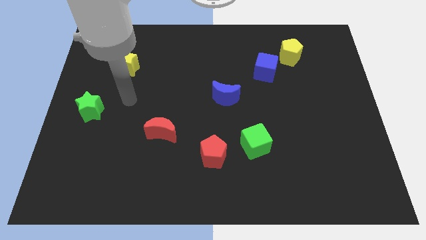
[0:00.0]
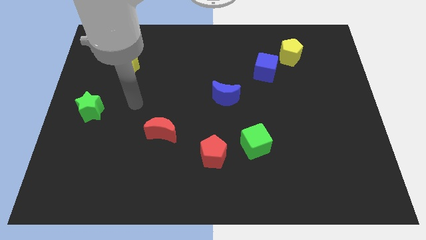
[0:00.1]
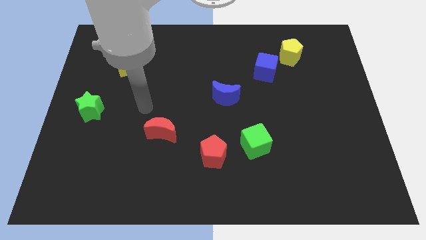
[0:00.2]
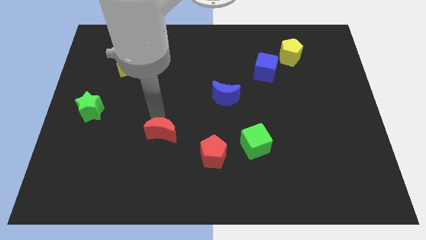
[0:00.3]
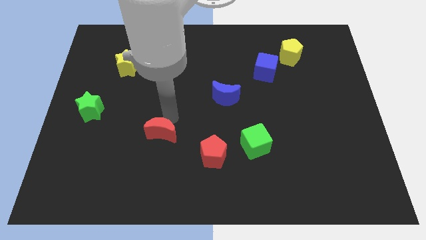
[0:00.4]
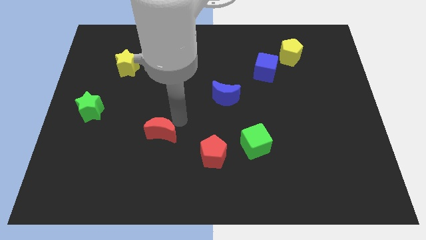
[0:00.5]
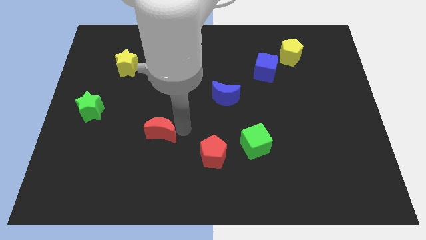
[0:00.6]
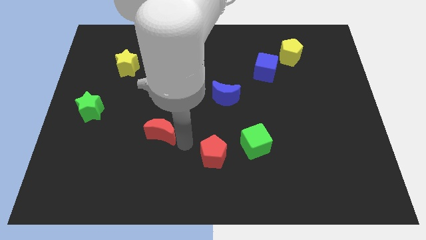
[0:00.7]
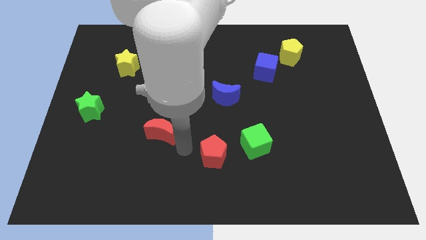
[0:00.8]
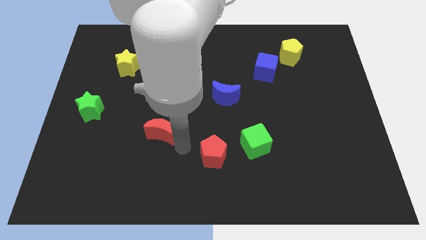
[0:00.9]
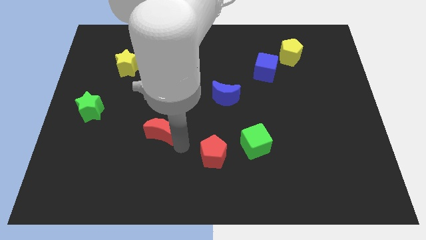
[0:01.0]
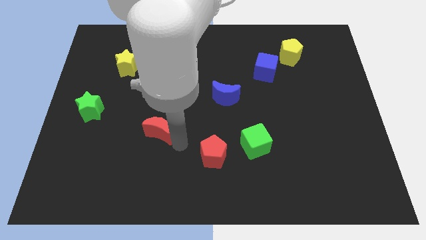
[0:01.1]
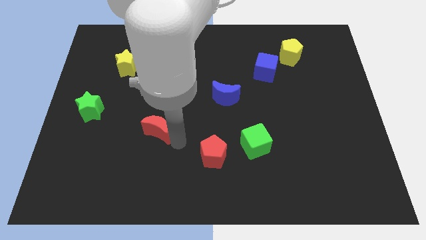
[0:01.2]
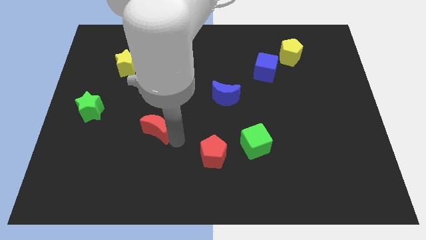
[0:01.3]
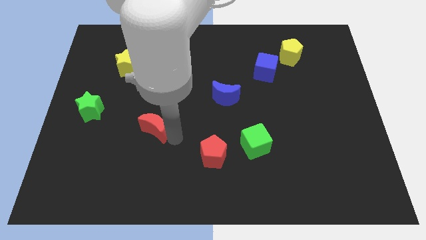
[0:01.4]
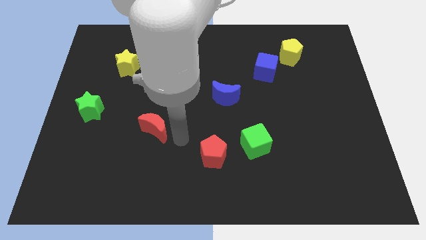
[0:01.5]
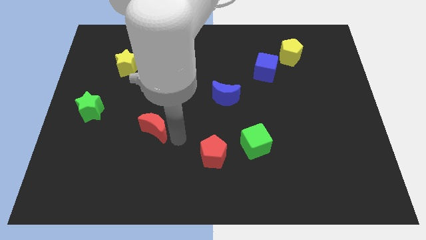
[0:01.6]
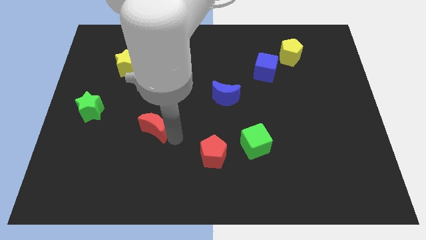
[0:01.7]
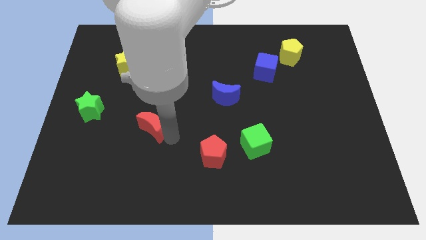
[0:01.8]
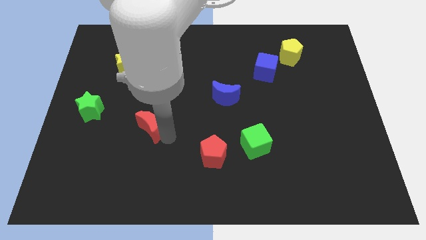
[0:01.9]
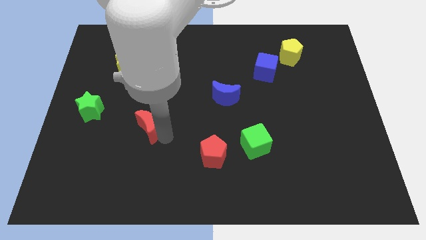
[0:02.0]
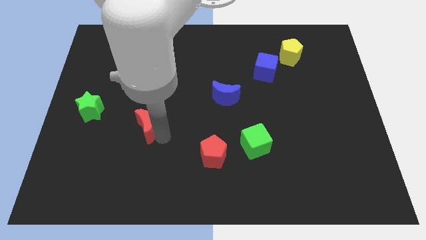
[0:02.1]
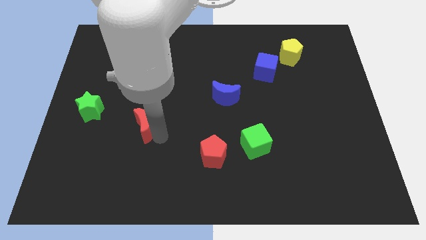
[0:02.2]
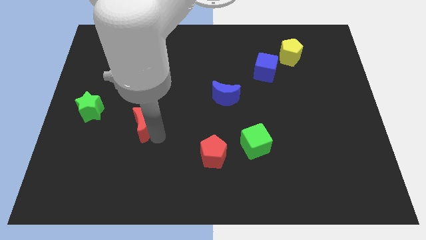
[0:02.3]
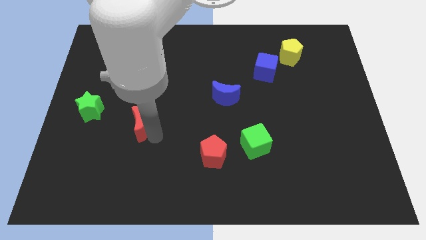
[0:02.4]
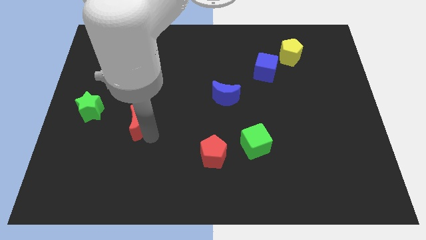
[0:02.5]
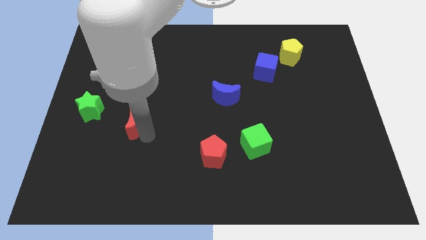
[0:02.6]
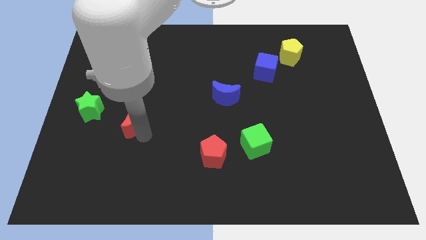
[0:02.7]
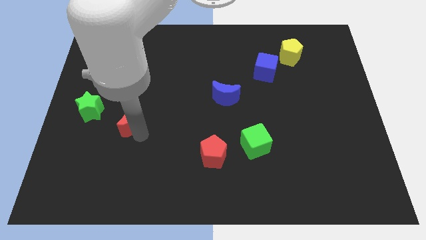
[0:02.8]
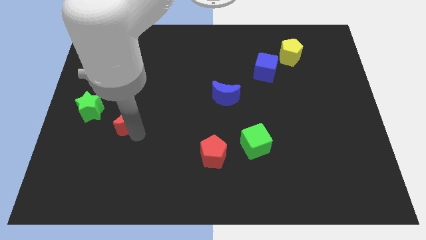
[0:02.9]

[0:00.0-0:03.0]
move the red moon upwards and left a little

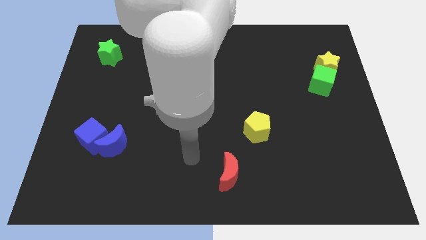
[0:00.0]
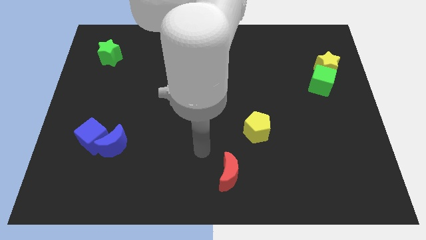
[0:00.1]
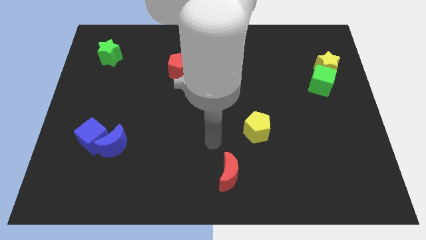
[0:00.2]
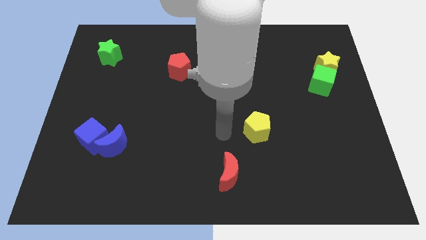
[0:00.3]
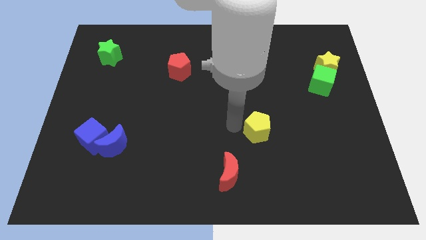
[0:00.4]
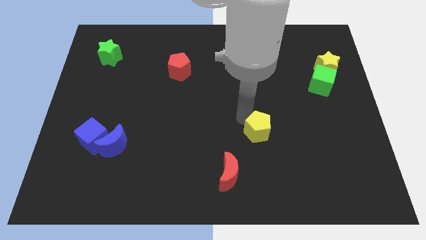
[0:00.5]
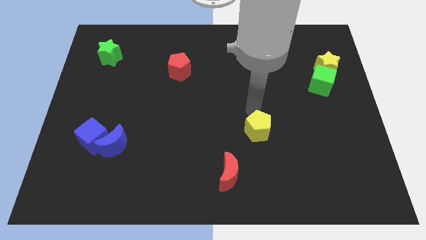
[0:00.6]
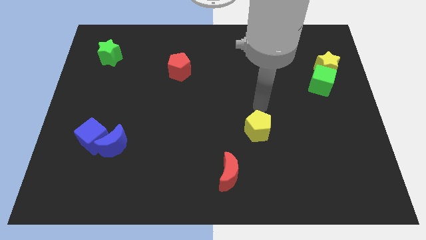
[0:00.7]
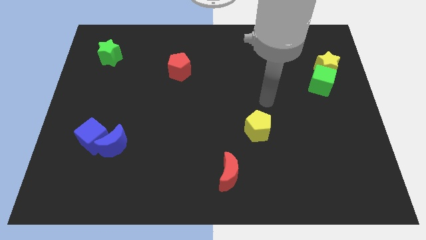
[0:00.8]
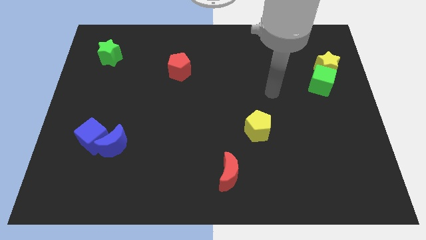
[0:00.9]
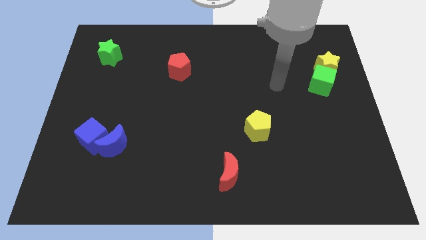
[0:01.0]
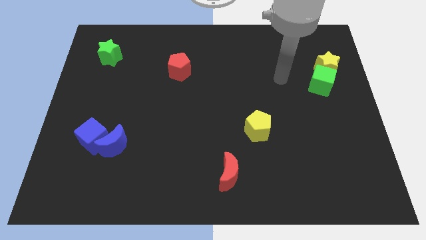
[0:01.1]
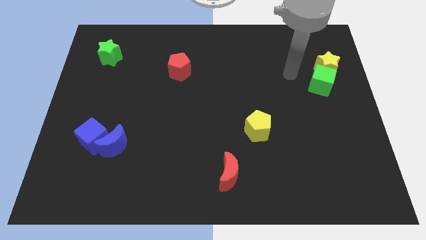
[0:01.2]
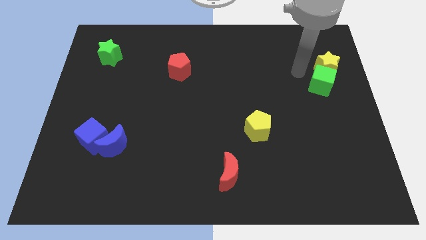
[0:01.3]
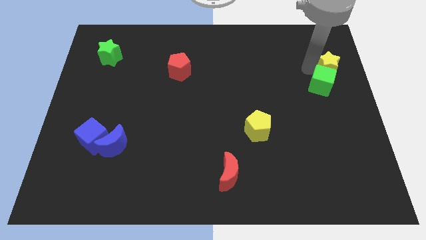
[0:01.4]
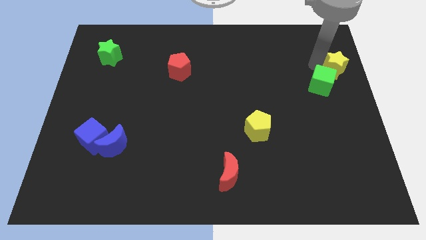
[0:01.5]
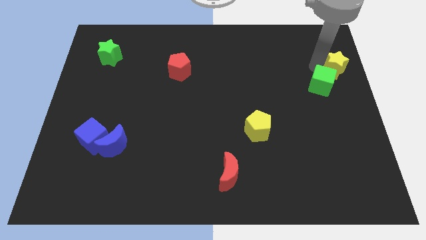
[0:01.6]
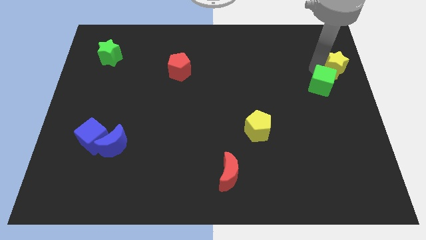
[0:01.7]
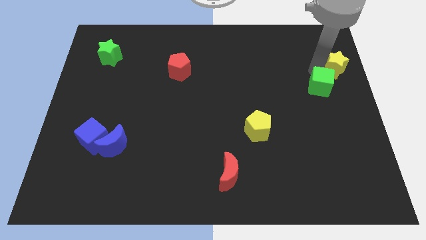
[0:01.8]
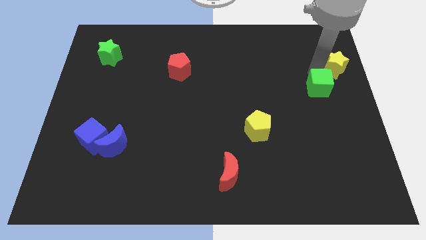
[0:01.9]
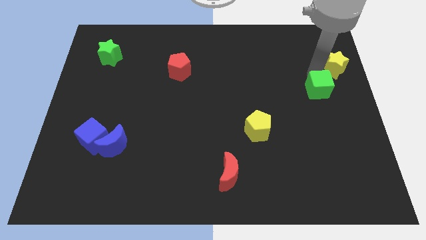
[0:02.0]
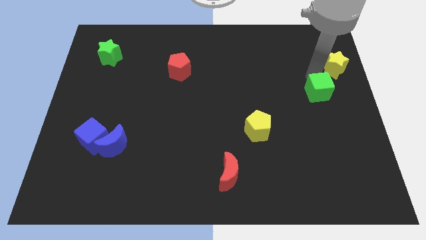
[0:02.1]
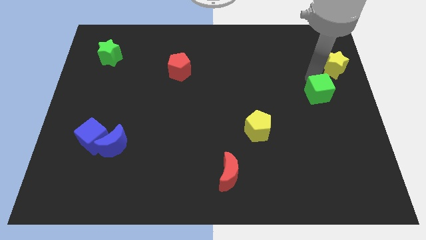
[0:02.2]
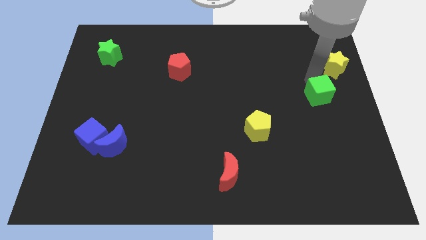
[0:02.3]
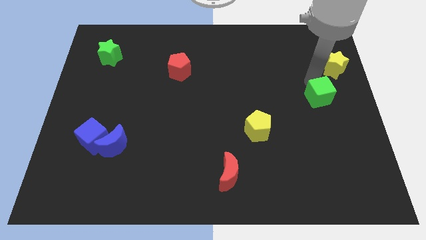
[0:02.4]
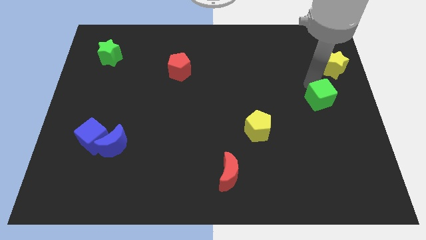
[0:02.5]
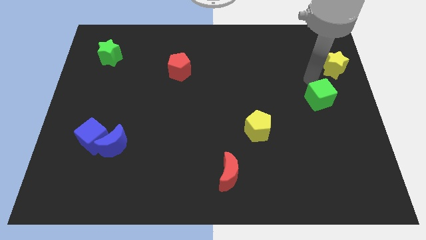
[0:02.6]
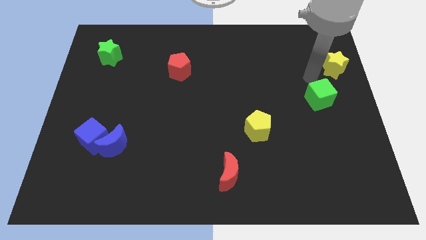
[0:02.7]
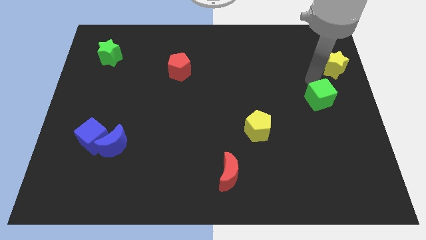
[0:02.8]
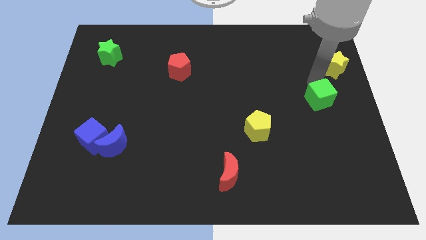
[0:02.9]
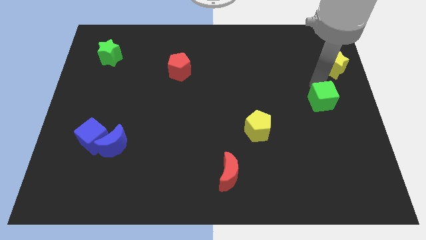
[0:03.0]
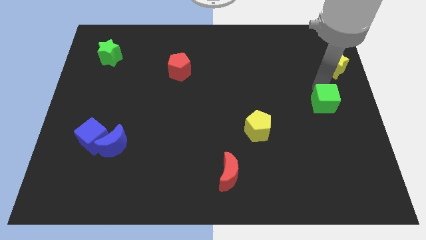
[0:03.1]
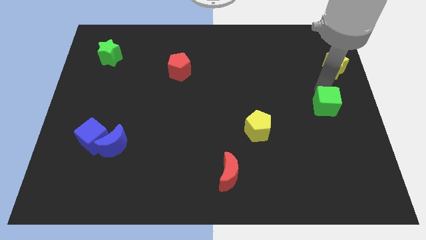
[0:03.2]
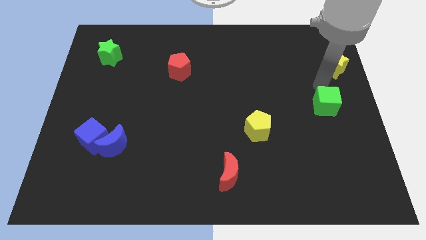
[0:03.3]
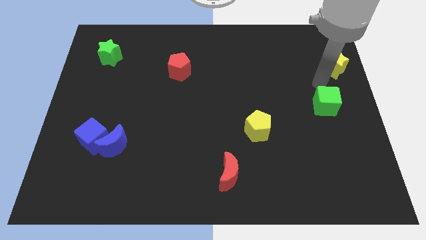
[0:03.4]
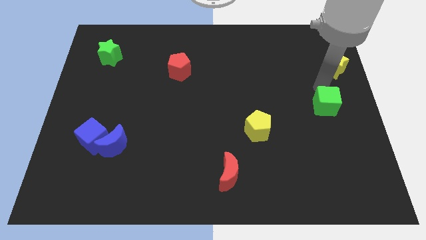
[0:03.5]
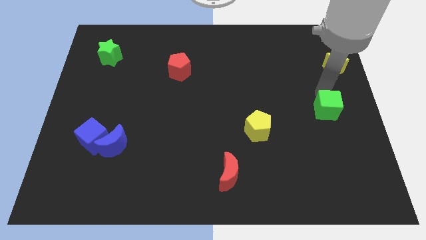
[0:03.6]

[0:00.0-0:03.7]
push the green cube somewhat downwards

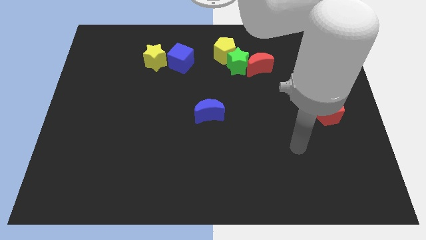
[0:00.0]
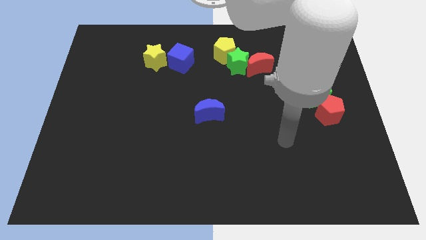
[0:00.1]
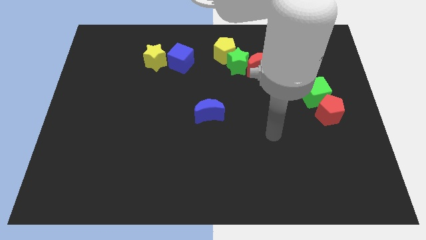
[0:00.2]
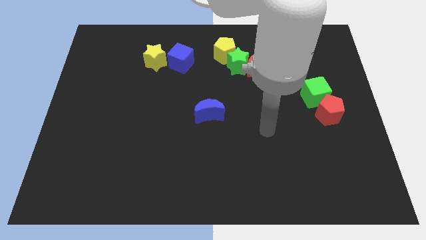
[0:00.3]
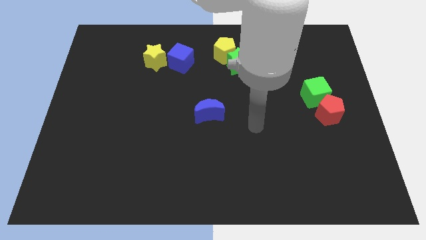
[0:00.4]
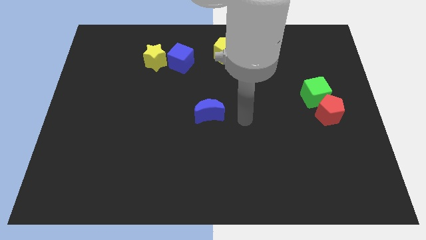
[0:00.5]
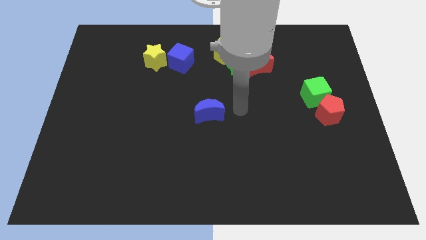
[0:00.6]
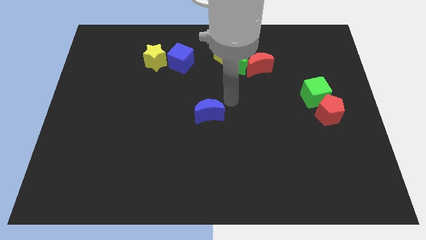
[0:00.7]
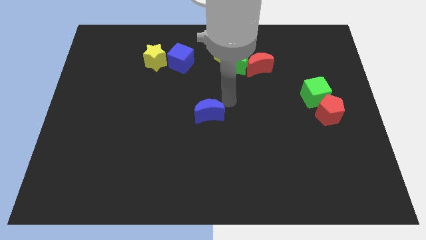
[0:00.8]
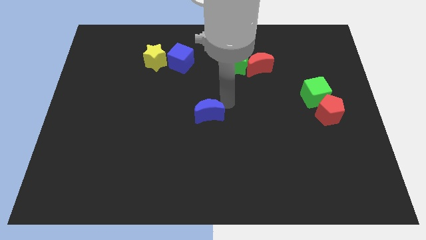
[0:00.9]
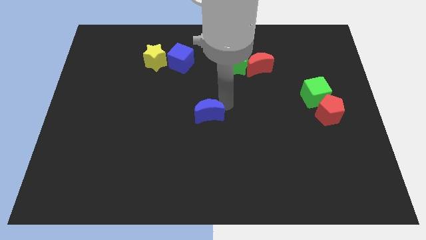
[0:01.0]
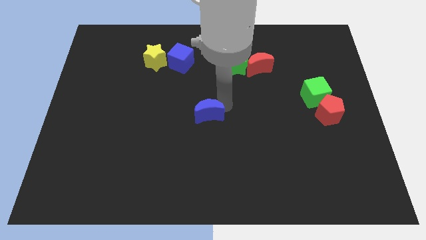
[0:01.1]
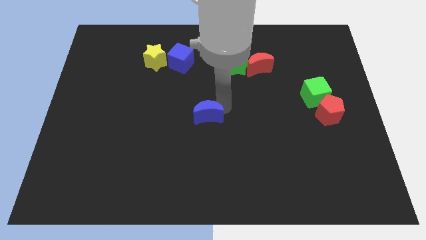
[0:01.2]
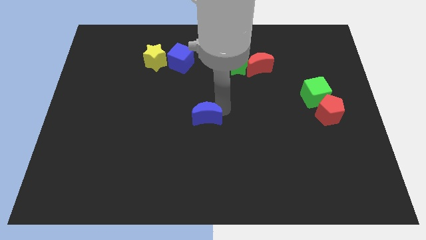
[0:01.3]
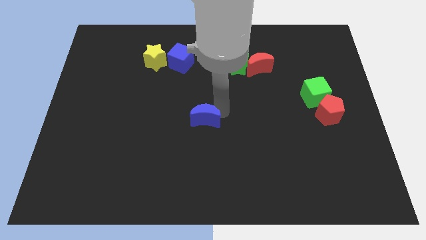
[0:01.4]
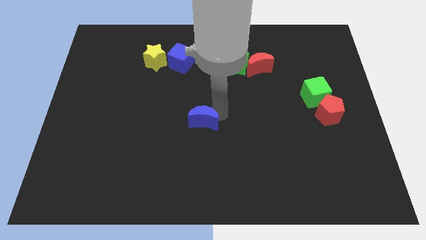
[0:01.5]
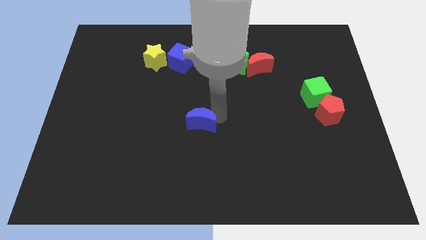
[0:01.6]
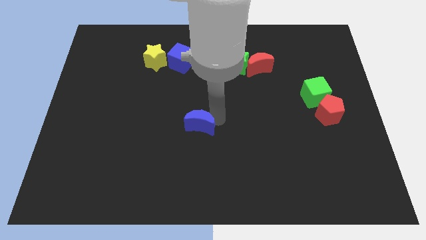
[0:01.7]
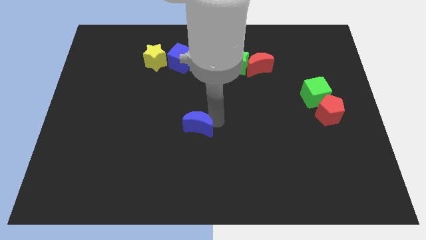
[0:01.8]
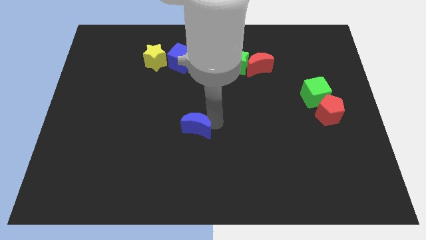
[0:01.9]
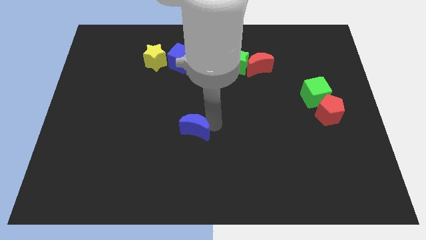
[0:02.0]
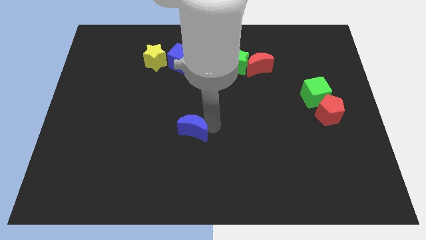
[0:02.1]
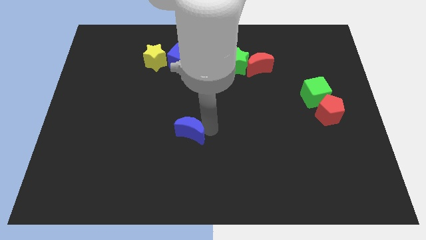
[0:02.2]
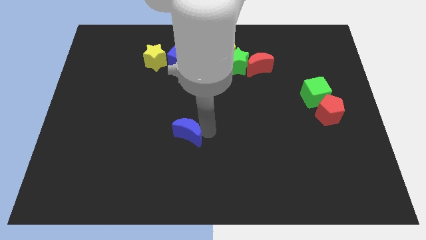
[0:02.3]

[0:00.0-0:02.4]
slide the blue moon down and left diagonally slightly
